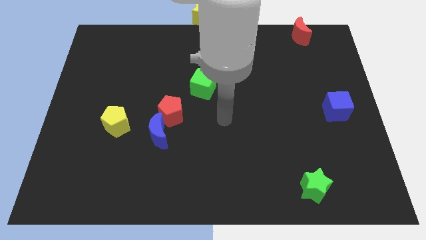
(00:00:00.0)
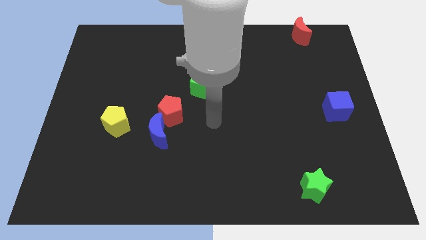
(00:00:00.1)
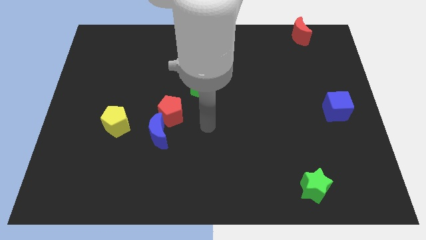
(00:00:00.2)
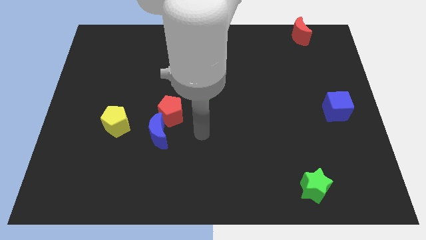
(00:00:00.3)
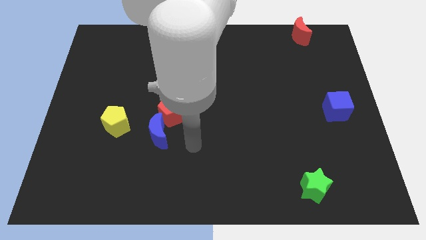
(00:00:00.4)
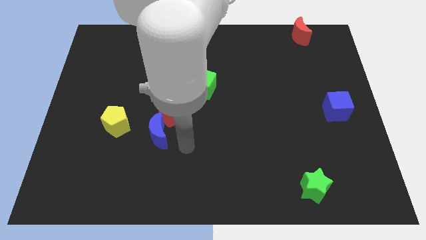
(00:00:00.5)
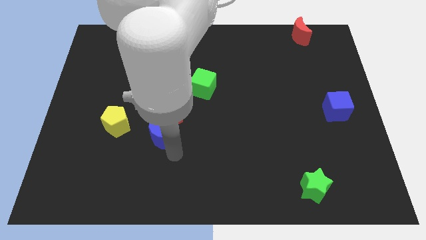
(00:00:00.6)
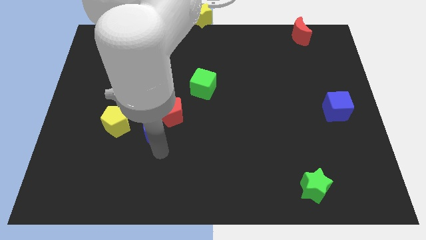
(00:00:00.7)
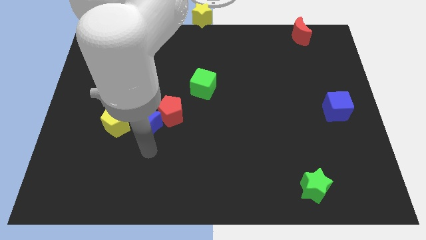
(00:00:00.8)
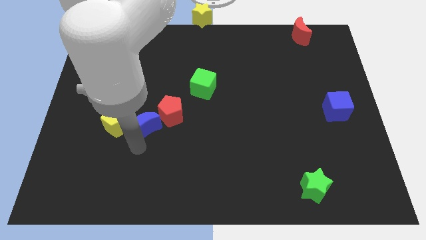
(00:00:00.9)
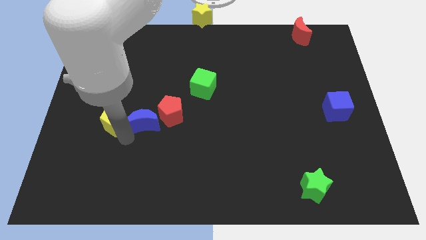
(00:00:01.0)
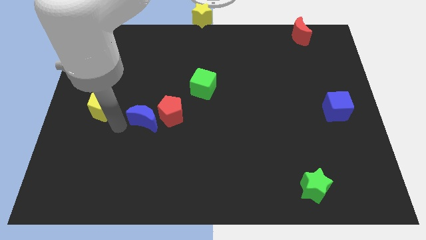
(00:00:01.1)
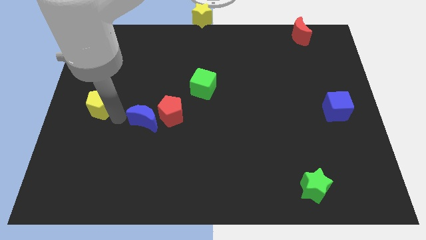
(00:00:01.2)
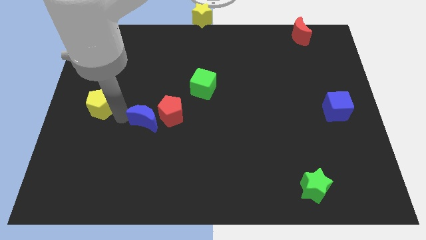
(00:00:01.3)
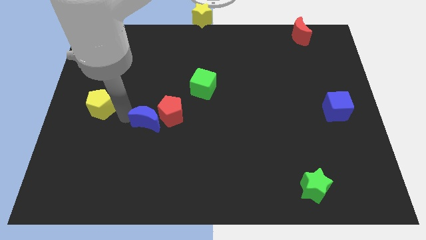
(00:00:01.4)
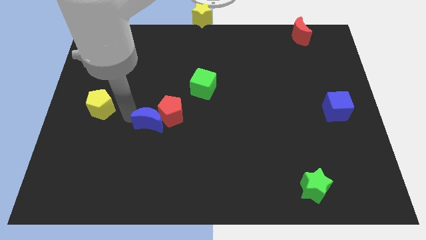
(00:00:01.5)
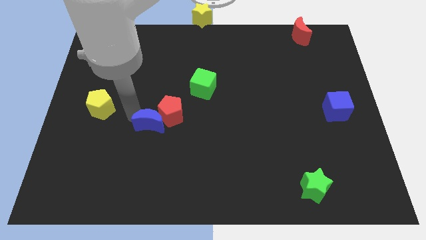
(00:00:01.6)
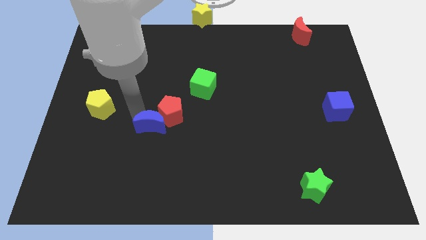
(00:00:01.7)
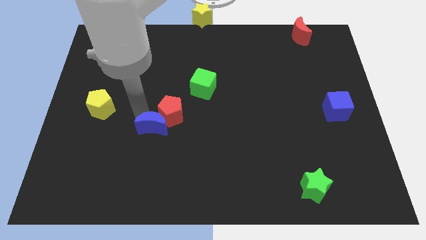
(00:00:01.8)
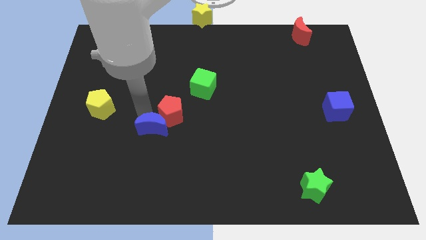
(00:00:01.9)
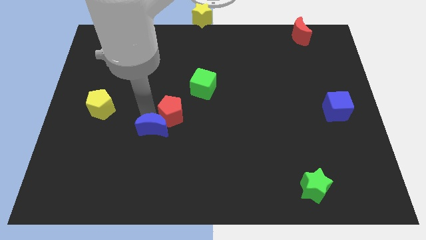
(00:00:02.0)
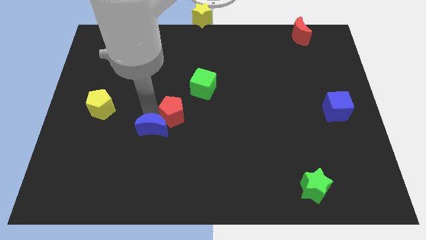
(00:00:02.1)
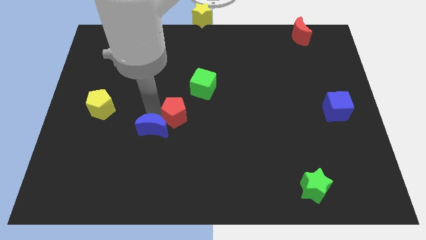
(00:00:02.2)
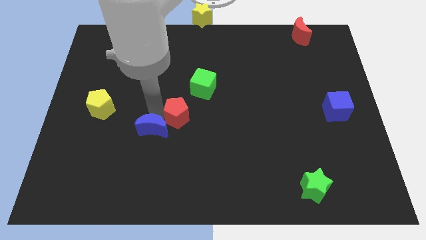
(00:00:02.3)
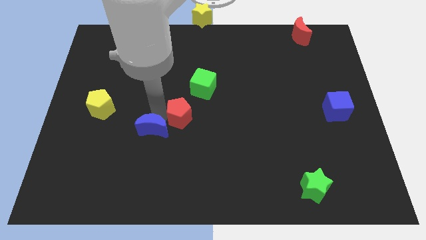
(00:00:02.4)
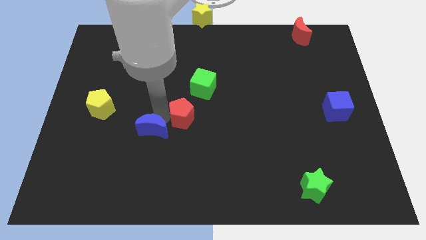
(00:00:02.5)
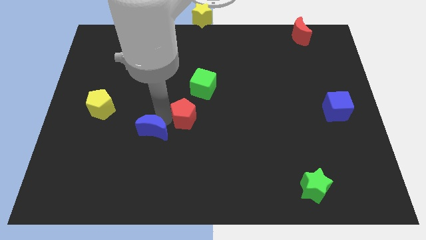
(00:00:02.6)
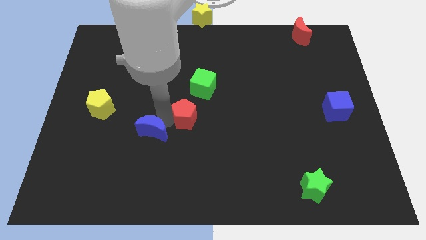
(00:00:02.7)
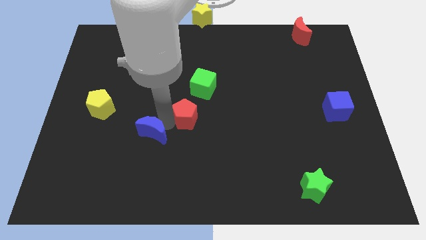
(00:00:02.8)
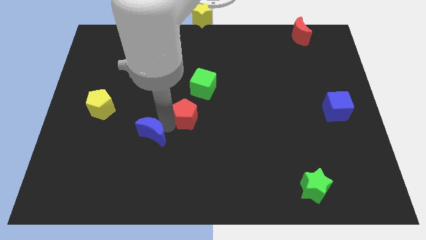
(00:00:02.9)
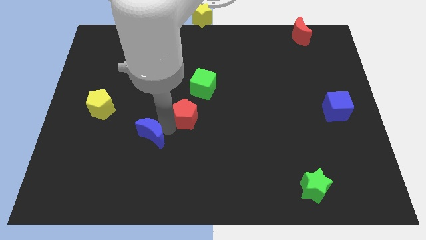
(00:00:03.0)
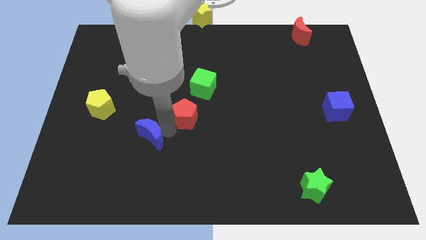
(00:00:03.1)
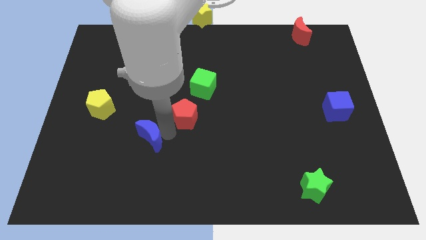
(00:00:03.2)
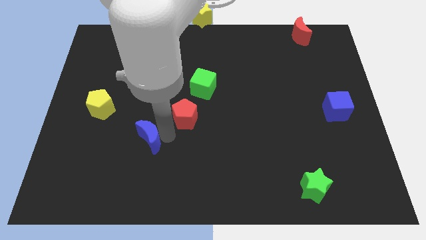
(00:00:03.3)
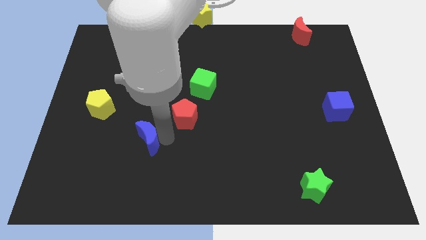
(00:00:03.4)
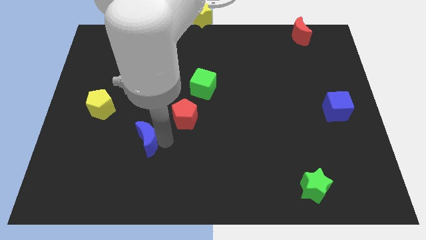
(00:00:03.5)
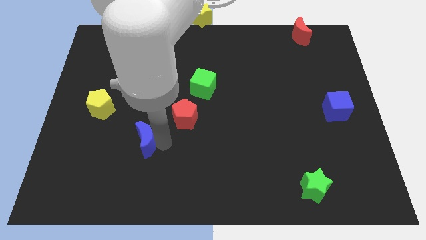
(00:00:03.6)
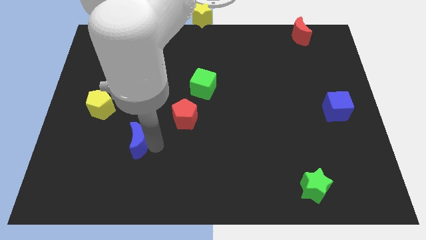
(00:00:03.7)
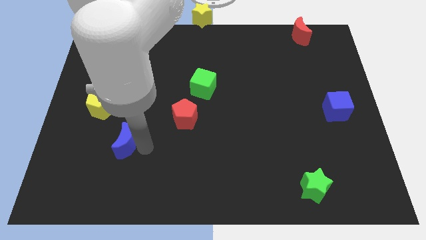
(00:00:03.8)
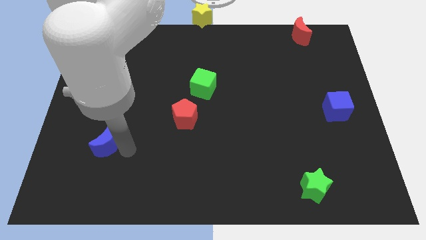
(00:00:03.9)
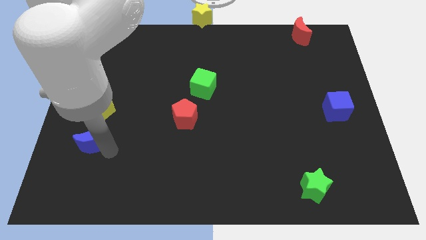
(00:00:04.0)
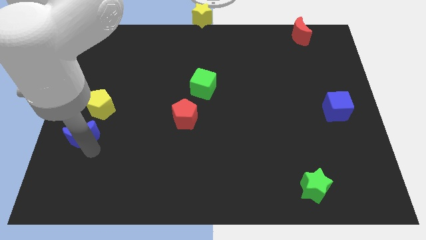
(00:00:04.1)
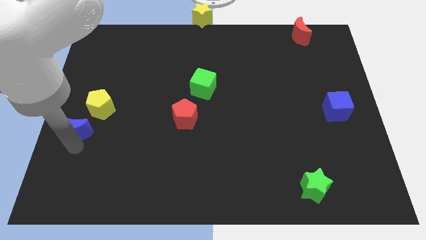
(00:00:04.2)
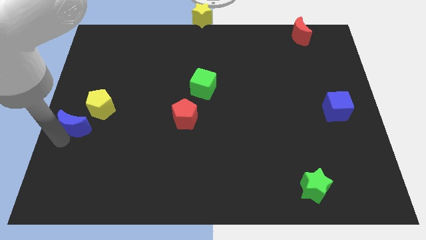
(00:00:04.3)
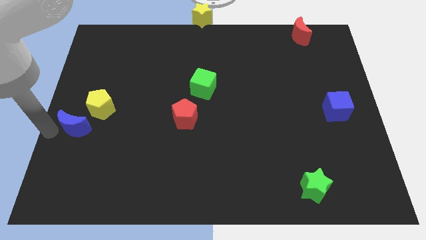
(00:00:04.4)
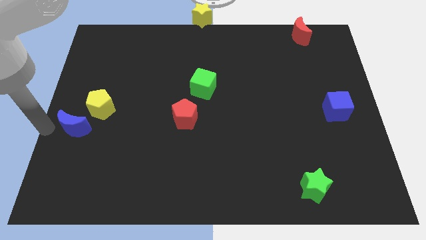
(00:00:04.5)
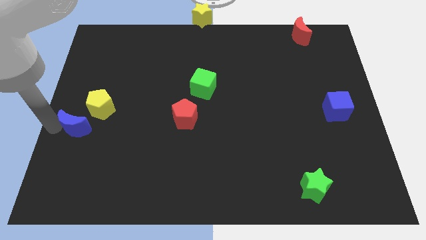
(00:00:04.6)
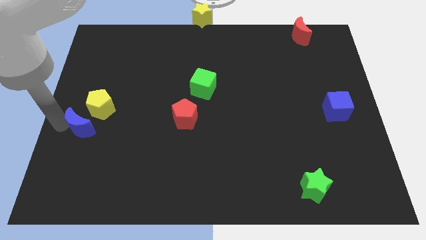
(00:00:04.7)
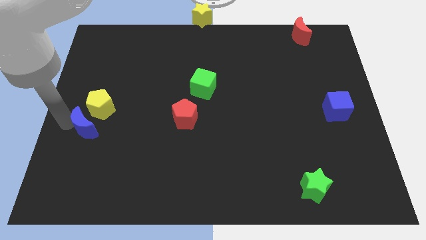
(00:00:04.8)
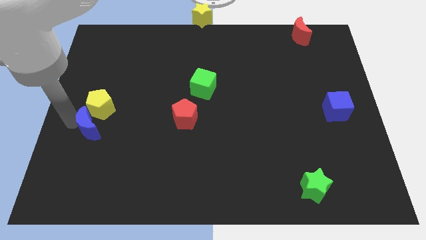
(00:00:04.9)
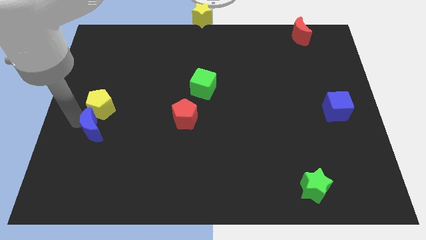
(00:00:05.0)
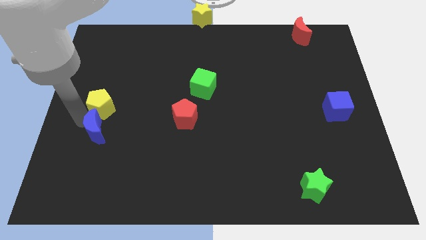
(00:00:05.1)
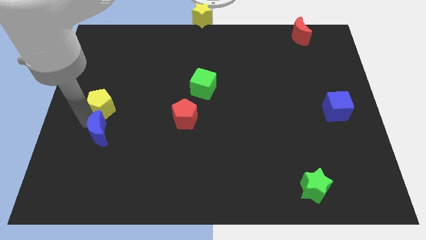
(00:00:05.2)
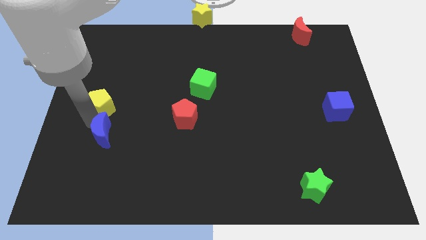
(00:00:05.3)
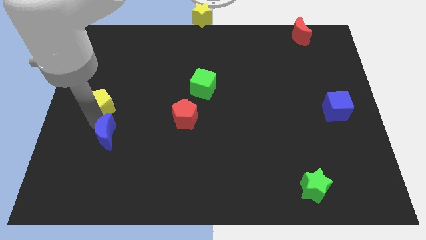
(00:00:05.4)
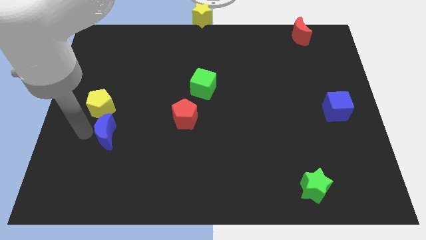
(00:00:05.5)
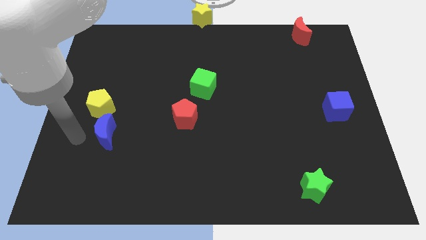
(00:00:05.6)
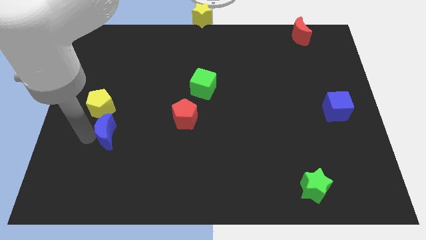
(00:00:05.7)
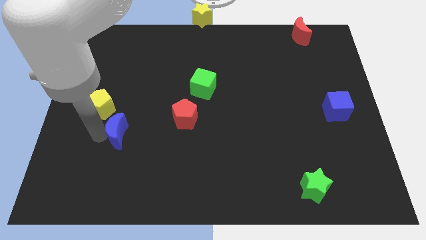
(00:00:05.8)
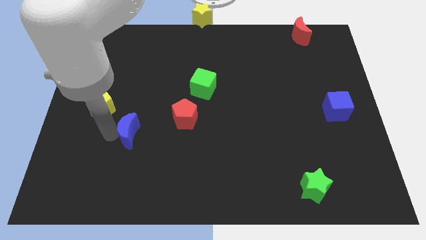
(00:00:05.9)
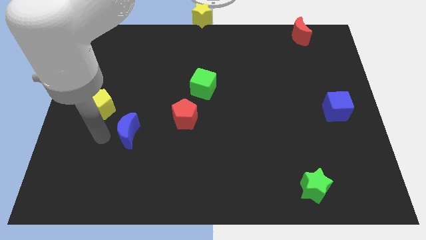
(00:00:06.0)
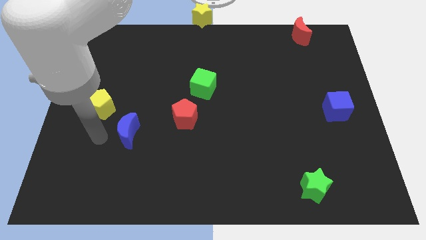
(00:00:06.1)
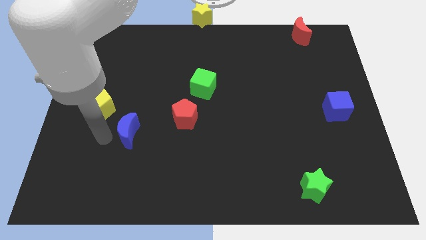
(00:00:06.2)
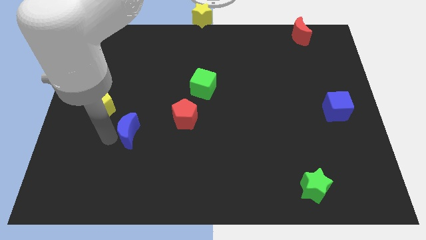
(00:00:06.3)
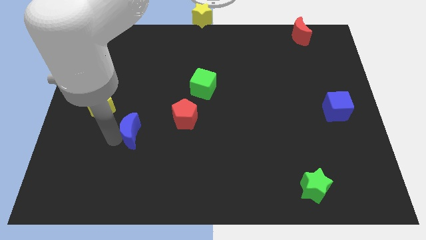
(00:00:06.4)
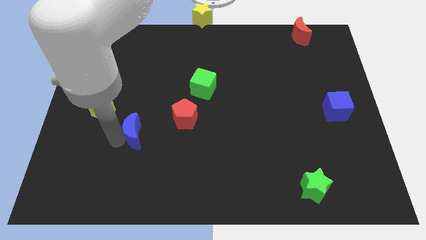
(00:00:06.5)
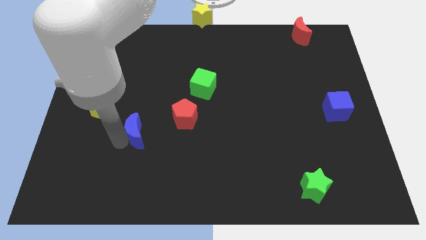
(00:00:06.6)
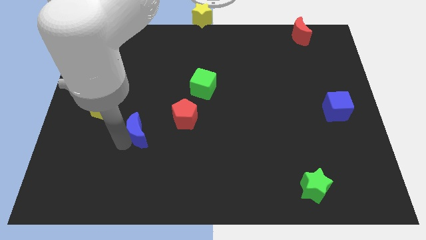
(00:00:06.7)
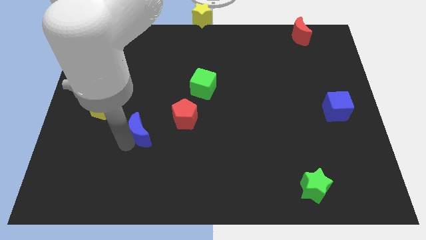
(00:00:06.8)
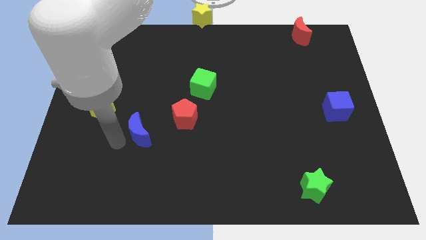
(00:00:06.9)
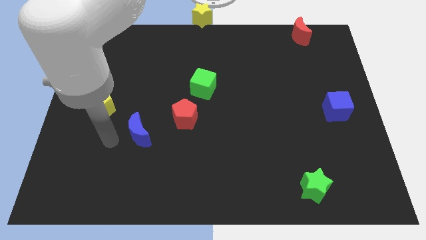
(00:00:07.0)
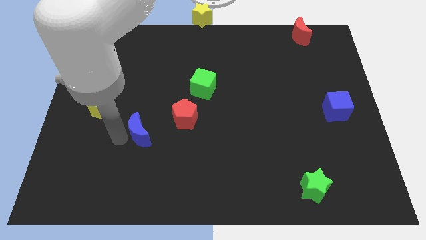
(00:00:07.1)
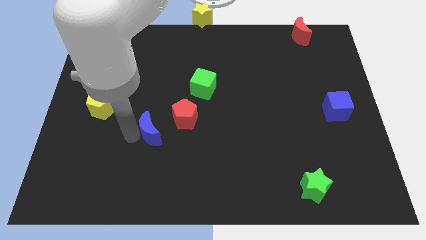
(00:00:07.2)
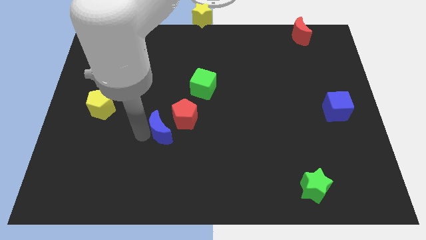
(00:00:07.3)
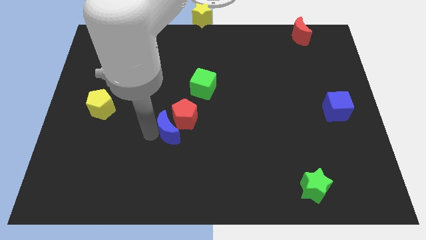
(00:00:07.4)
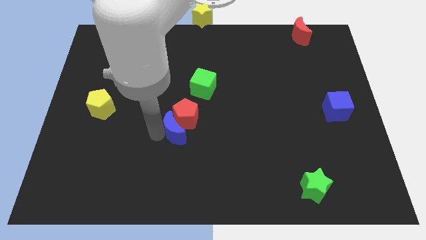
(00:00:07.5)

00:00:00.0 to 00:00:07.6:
move the blue moon to the middle
